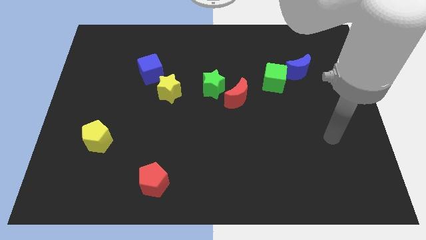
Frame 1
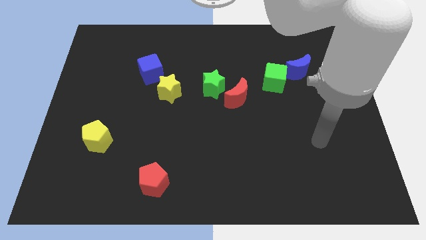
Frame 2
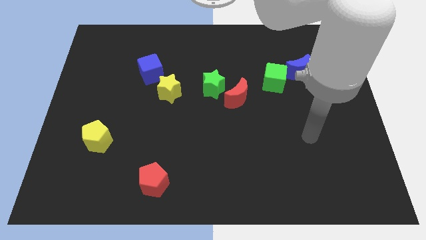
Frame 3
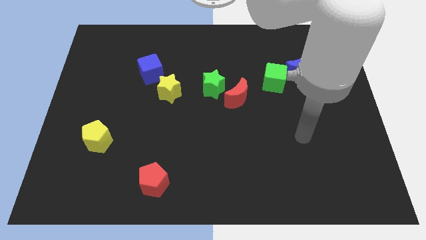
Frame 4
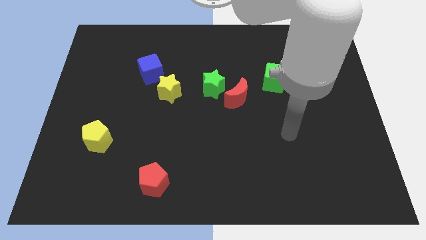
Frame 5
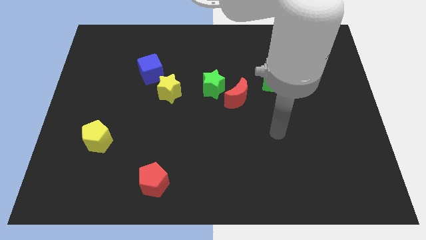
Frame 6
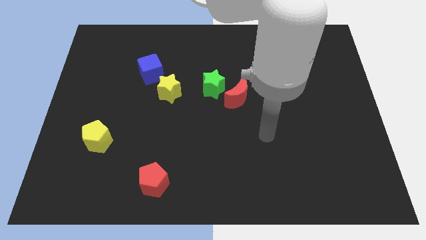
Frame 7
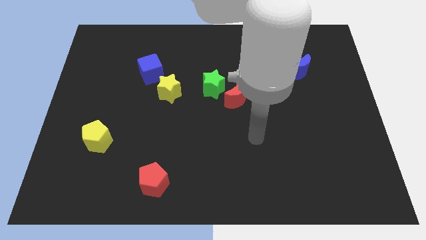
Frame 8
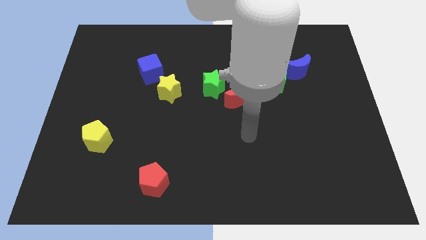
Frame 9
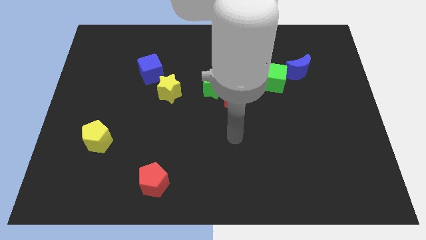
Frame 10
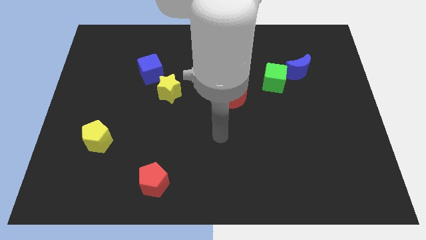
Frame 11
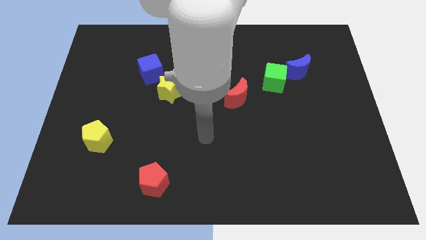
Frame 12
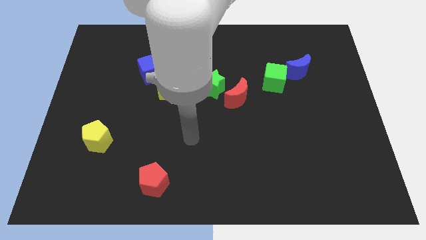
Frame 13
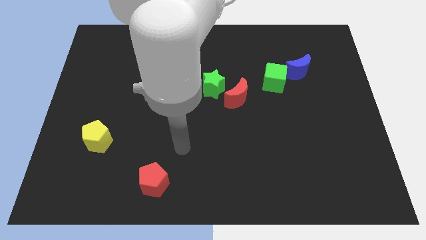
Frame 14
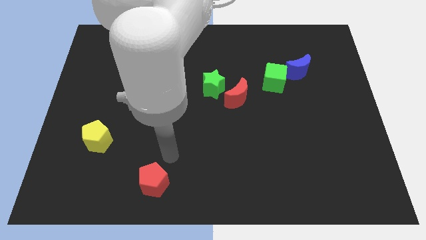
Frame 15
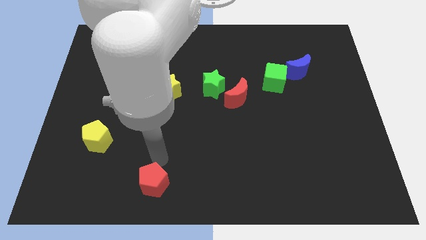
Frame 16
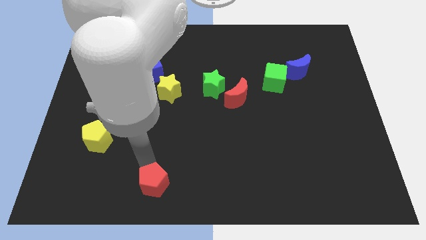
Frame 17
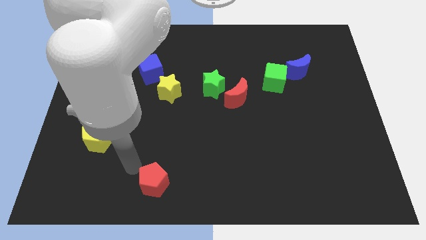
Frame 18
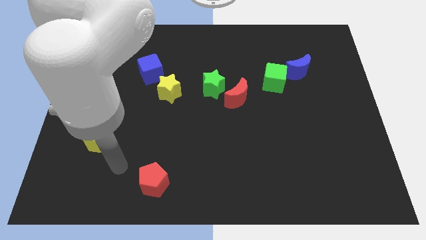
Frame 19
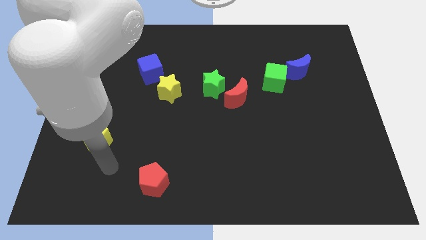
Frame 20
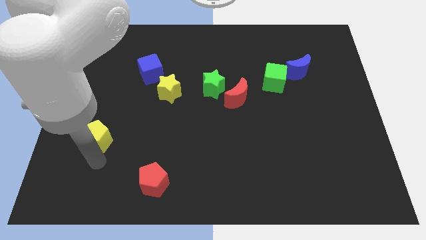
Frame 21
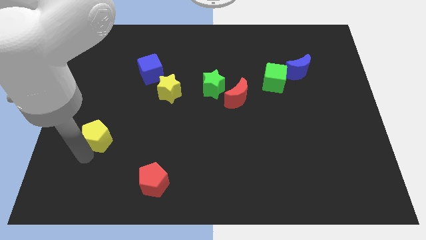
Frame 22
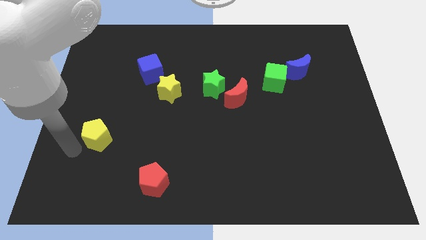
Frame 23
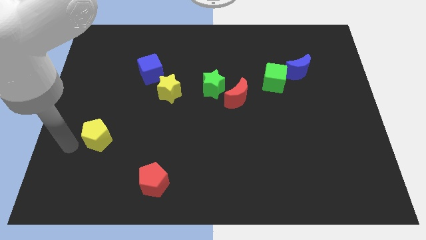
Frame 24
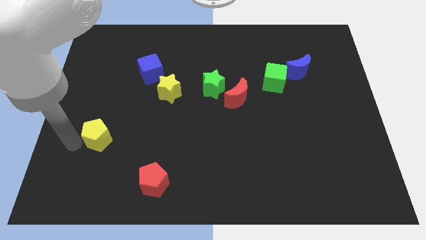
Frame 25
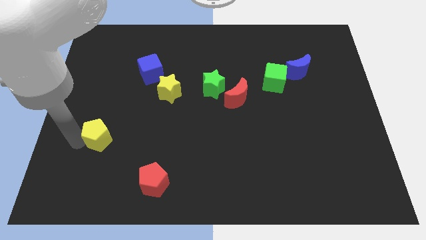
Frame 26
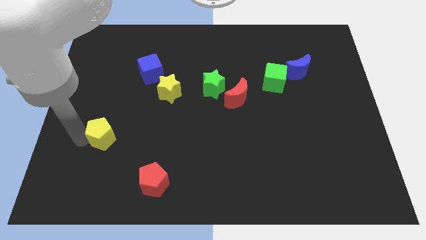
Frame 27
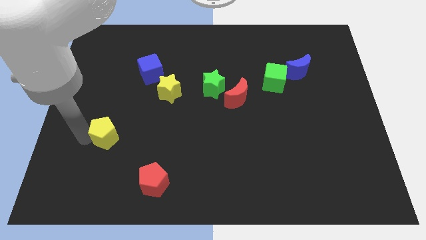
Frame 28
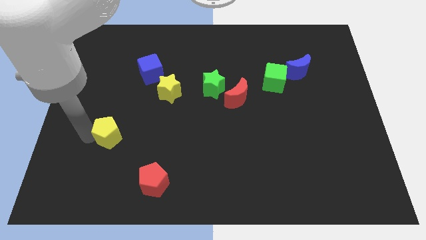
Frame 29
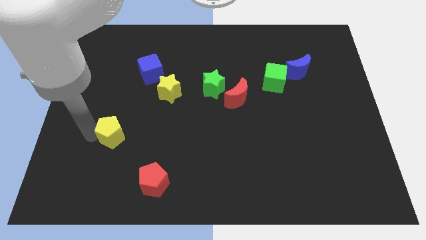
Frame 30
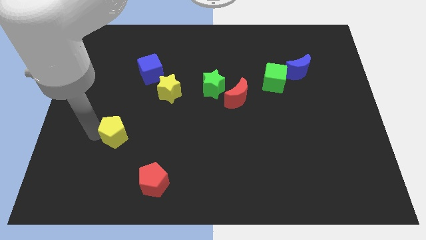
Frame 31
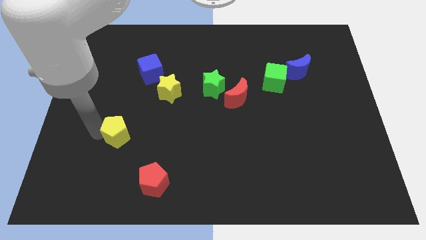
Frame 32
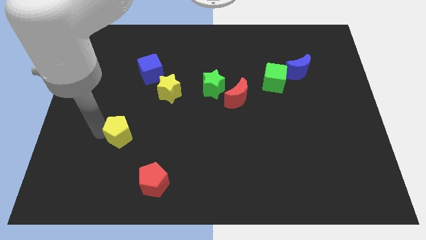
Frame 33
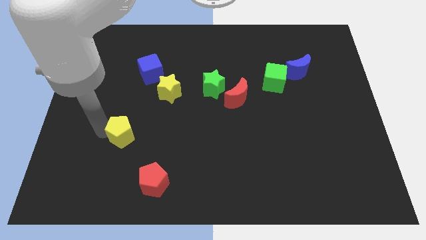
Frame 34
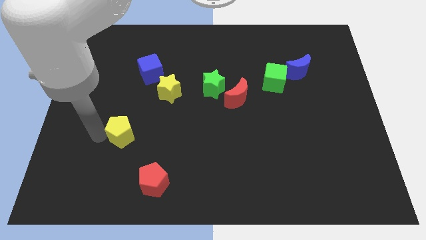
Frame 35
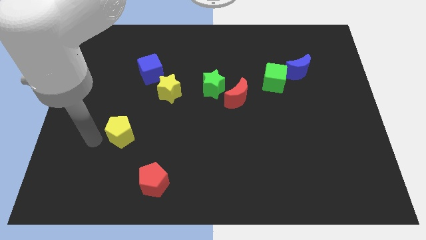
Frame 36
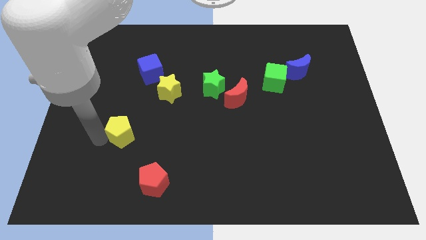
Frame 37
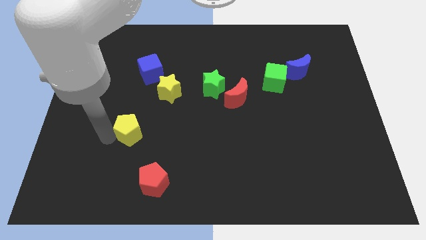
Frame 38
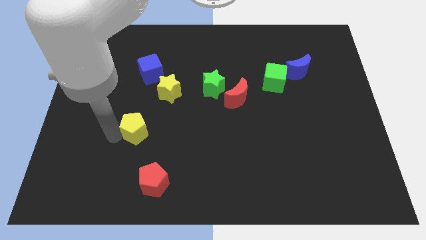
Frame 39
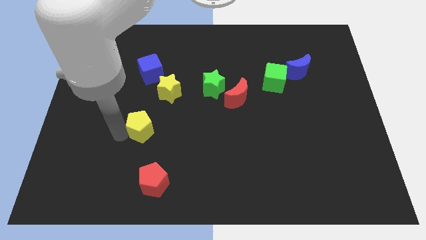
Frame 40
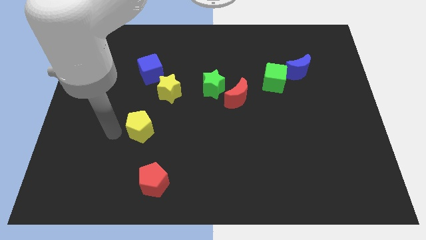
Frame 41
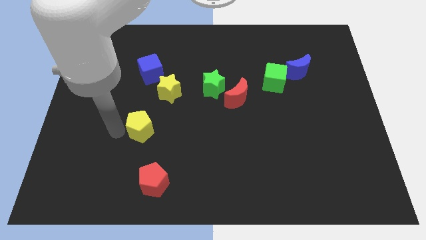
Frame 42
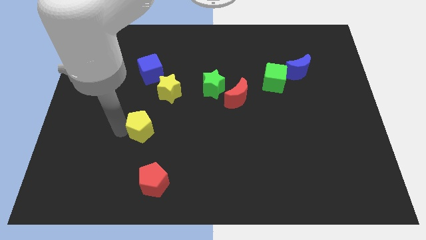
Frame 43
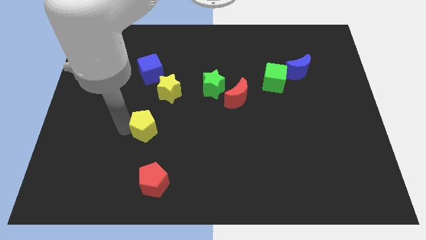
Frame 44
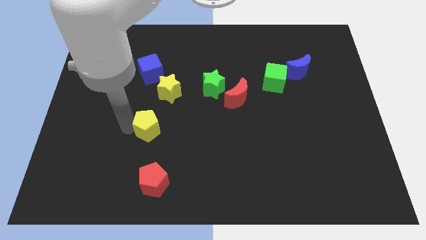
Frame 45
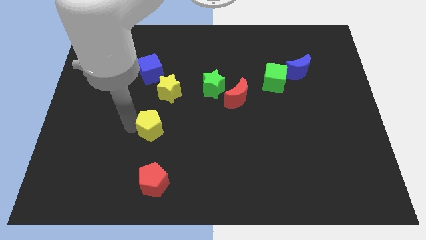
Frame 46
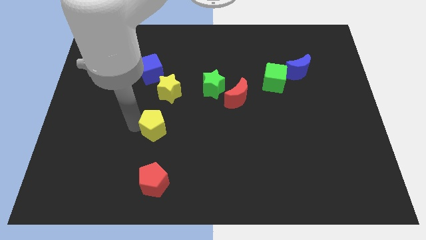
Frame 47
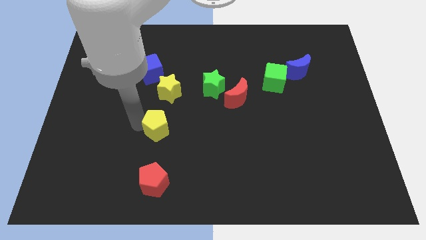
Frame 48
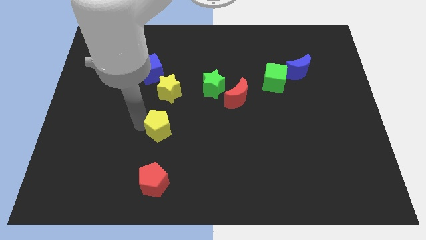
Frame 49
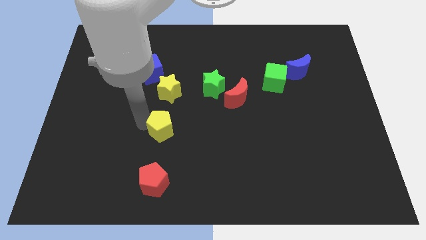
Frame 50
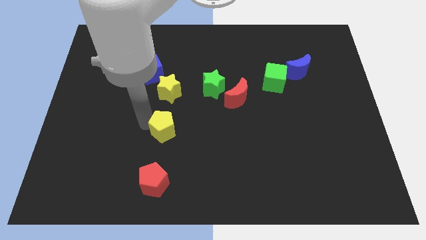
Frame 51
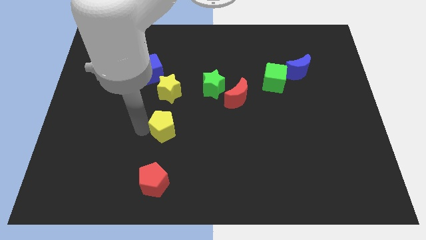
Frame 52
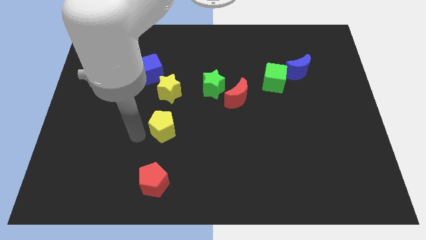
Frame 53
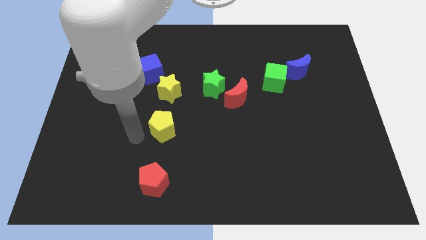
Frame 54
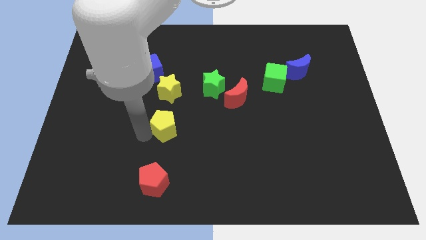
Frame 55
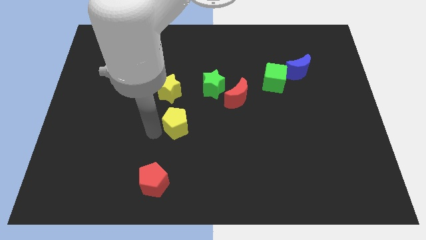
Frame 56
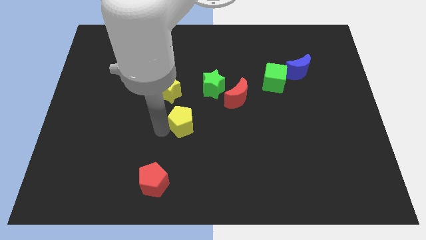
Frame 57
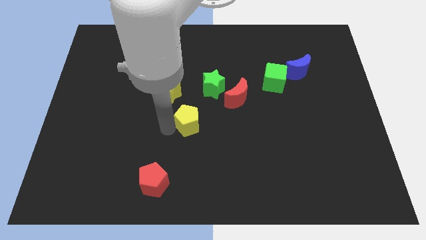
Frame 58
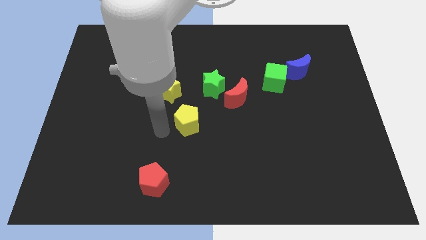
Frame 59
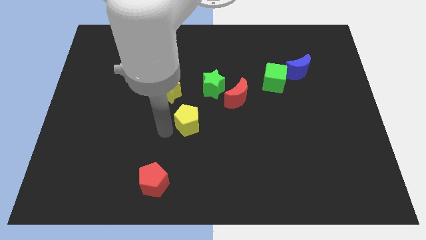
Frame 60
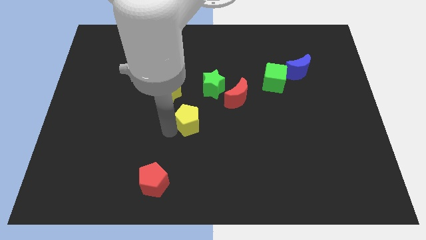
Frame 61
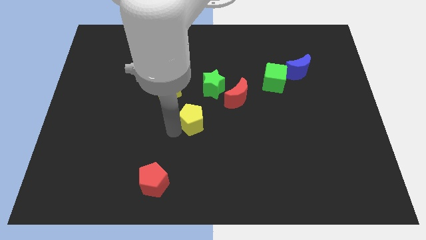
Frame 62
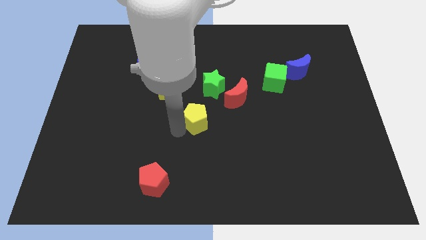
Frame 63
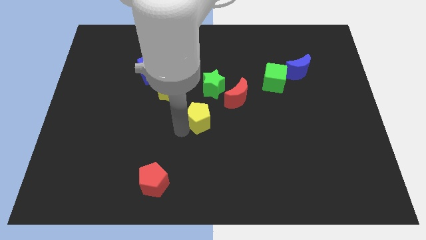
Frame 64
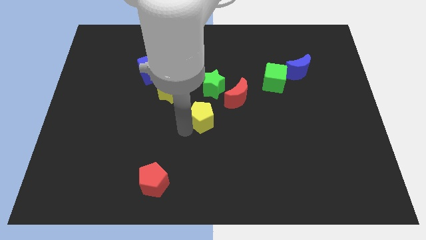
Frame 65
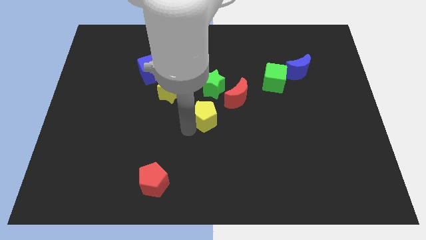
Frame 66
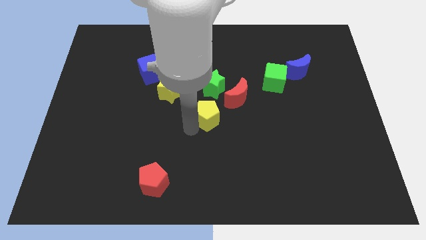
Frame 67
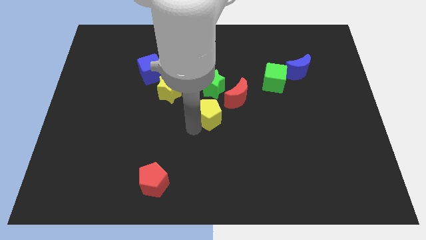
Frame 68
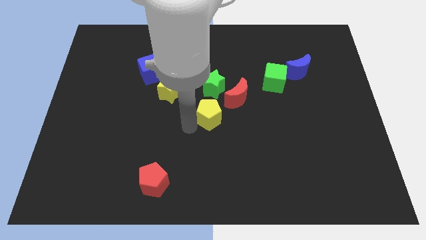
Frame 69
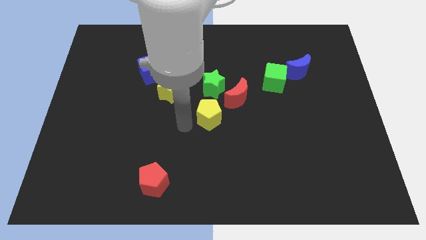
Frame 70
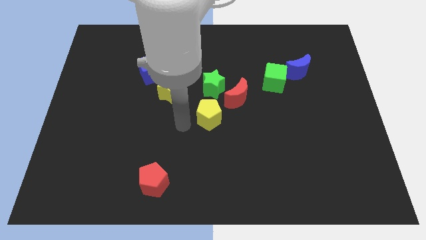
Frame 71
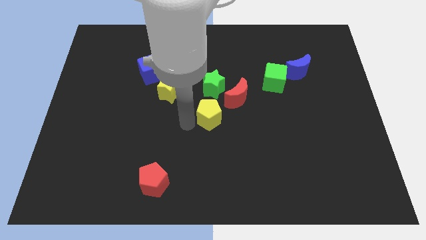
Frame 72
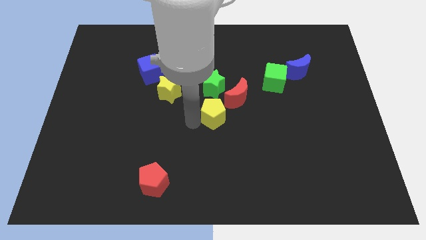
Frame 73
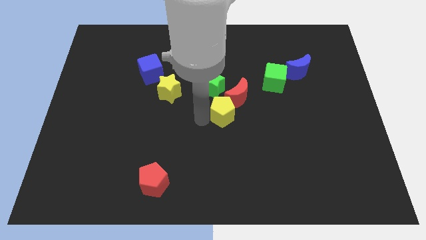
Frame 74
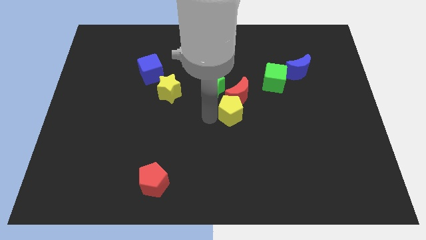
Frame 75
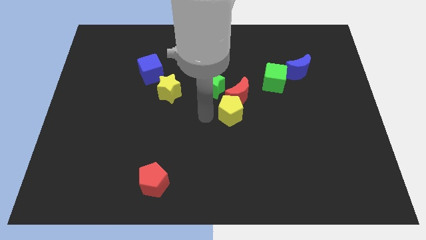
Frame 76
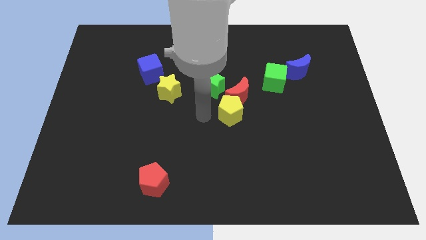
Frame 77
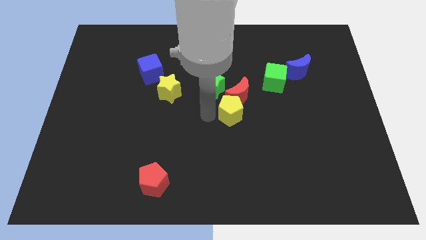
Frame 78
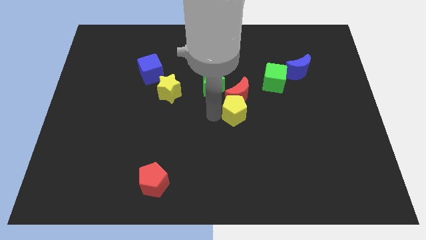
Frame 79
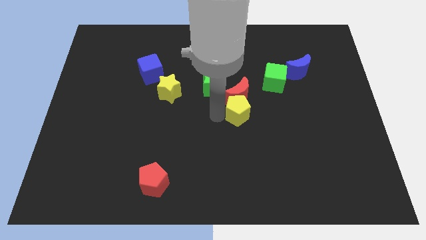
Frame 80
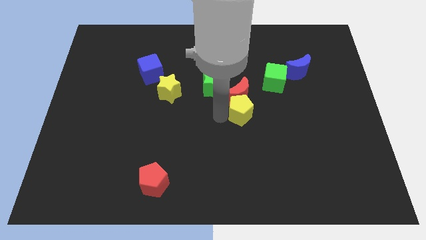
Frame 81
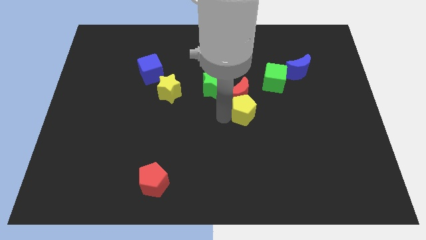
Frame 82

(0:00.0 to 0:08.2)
put the yellow pentagon to the bottom left side of the green cube
